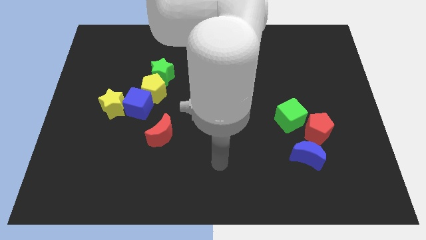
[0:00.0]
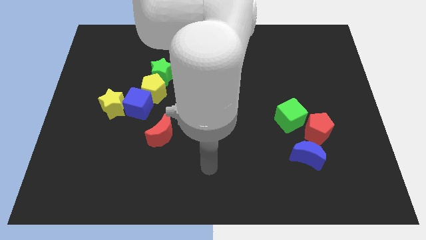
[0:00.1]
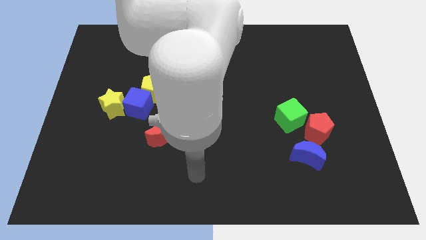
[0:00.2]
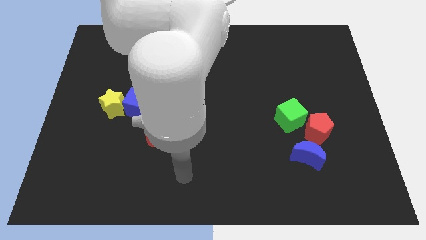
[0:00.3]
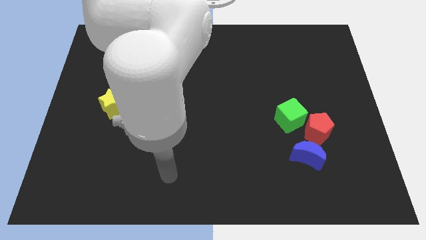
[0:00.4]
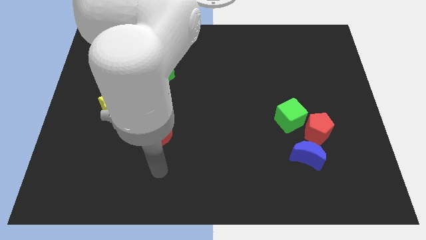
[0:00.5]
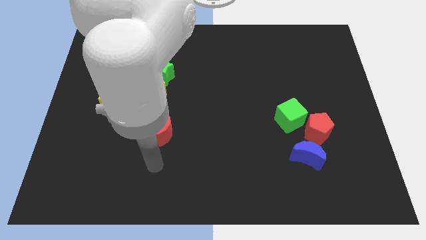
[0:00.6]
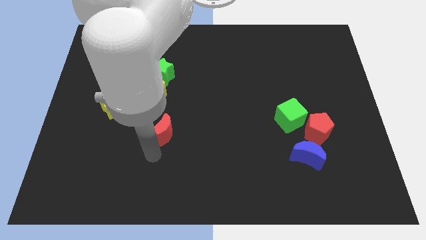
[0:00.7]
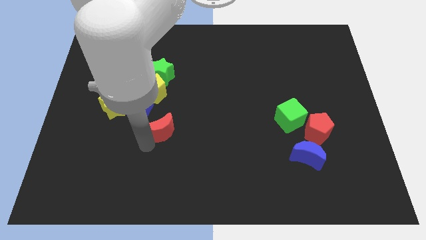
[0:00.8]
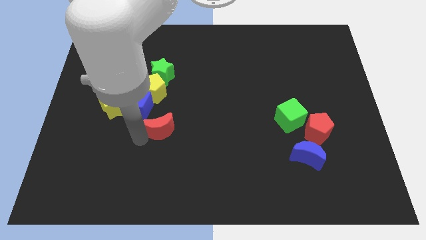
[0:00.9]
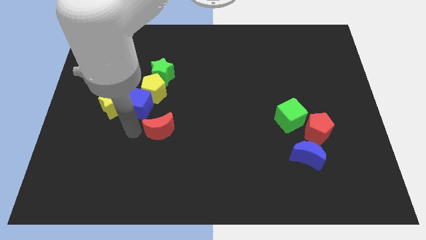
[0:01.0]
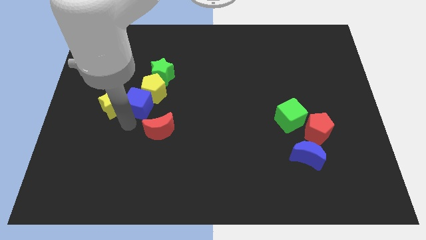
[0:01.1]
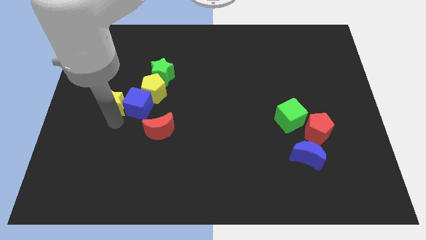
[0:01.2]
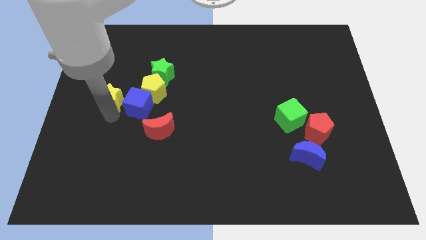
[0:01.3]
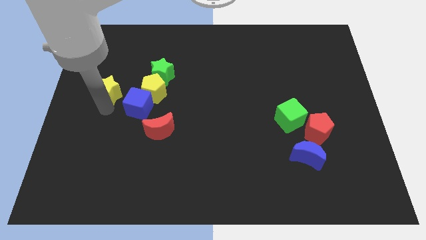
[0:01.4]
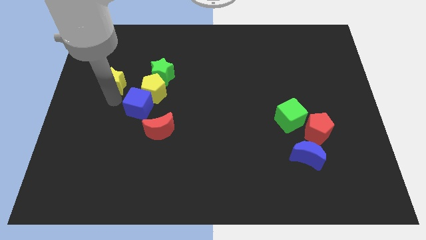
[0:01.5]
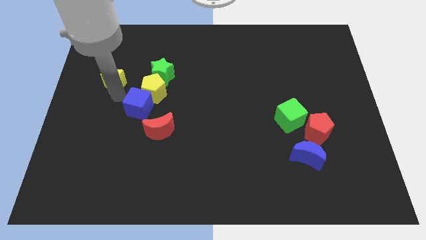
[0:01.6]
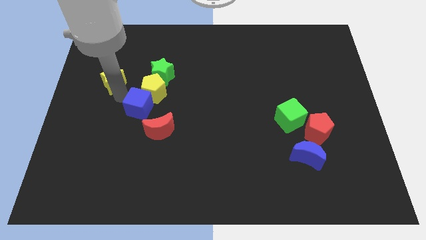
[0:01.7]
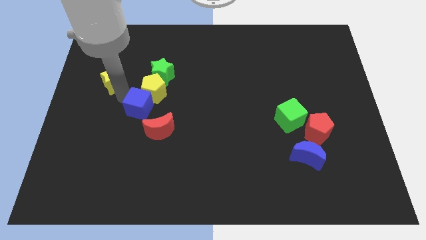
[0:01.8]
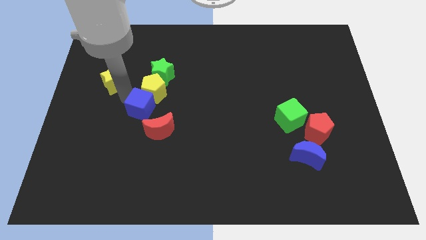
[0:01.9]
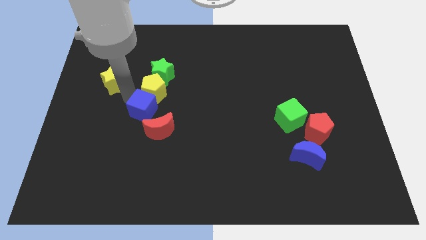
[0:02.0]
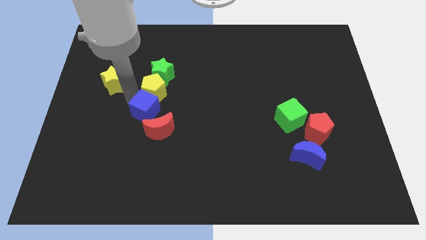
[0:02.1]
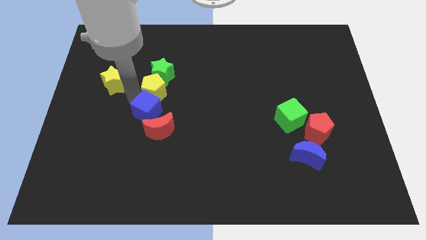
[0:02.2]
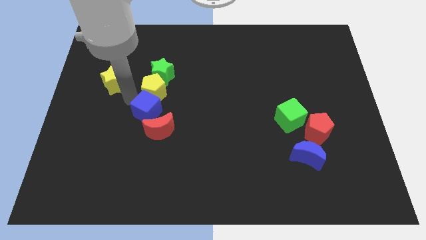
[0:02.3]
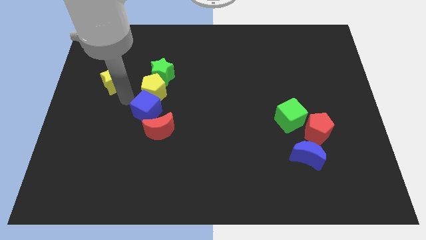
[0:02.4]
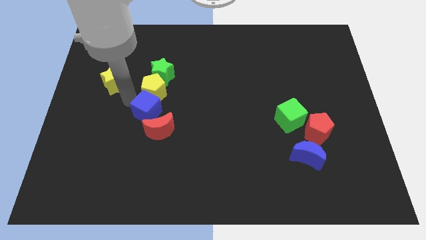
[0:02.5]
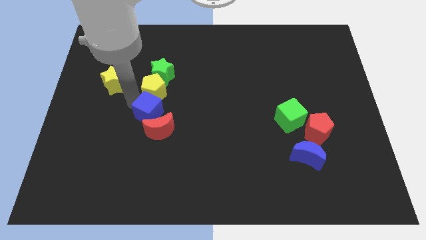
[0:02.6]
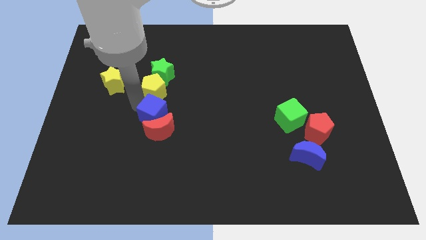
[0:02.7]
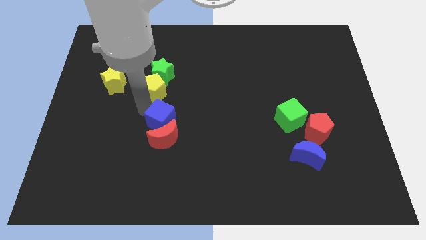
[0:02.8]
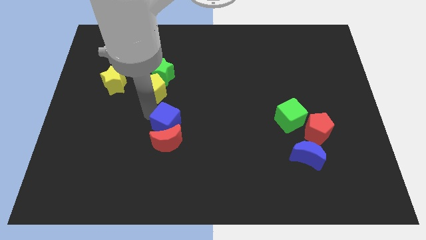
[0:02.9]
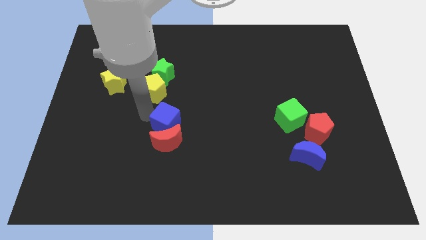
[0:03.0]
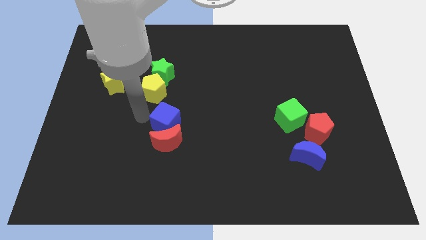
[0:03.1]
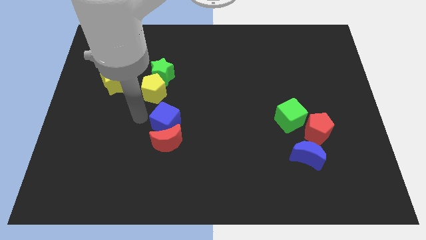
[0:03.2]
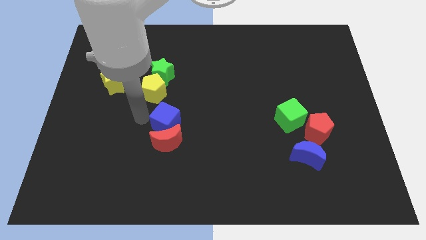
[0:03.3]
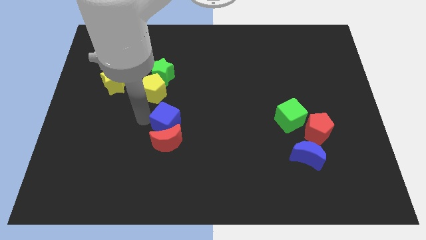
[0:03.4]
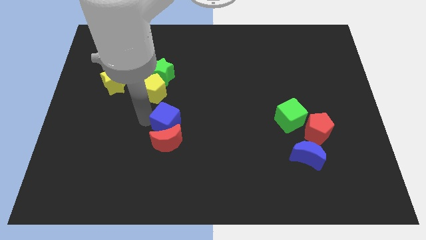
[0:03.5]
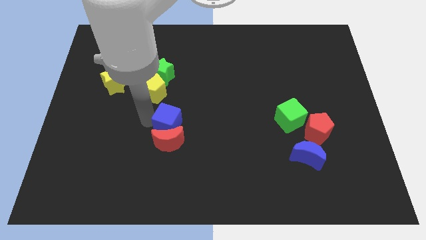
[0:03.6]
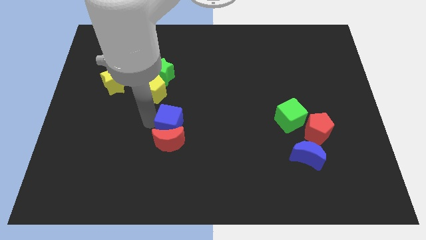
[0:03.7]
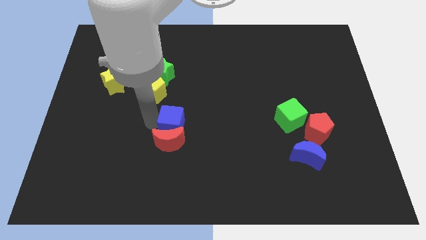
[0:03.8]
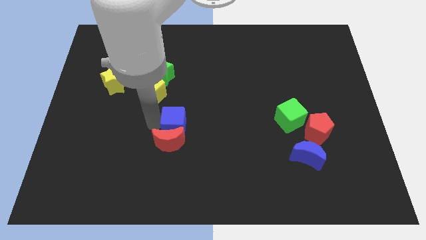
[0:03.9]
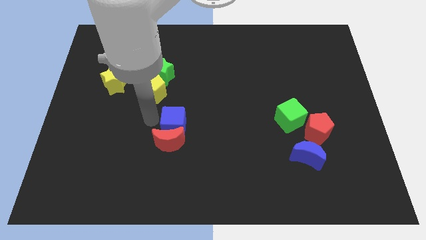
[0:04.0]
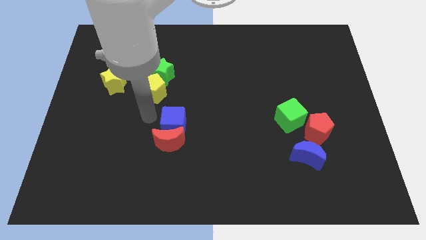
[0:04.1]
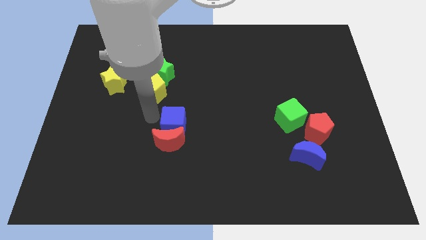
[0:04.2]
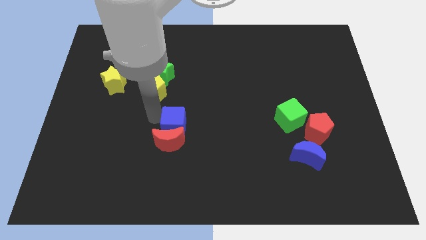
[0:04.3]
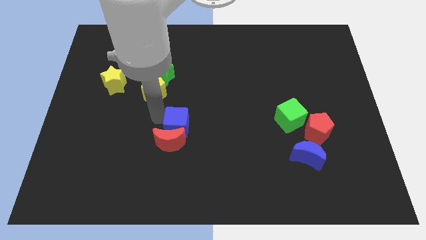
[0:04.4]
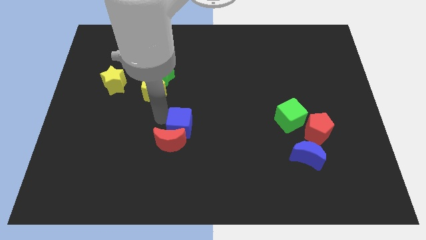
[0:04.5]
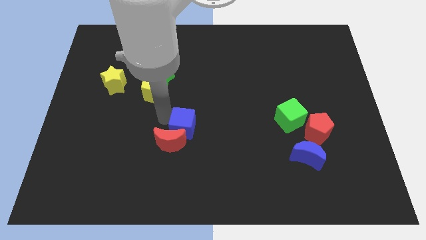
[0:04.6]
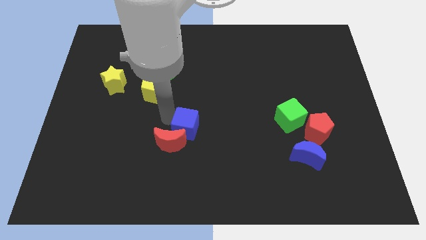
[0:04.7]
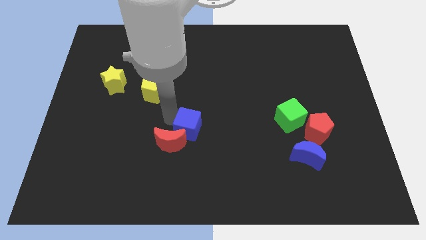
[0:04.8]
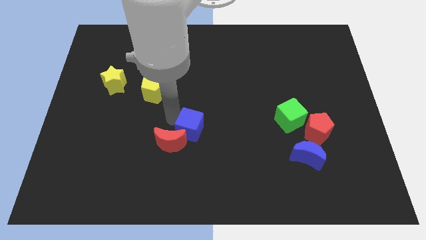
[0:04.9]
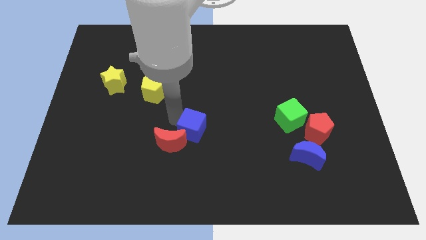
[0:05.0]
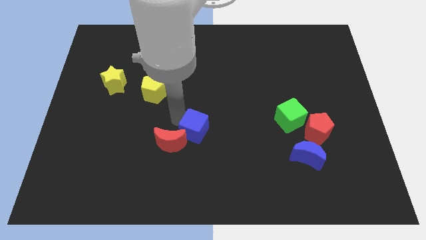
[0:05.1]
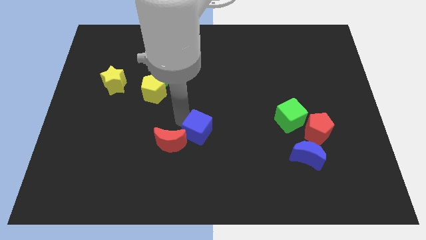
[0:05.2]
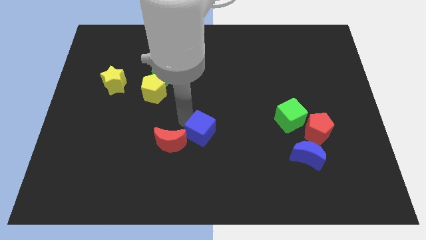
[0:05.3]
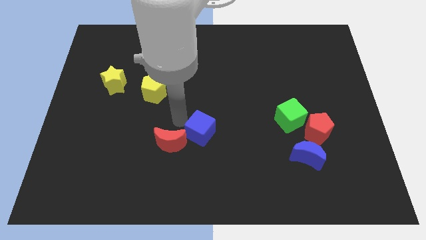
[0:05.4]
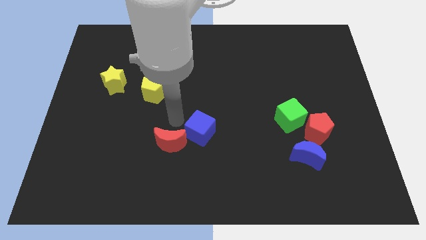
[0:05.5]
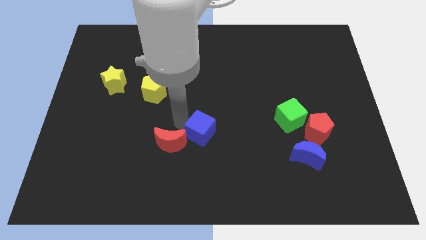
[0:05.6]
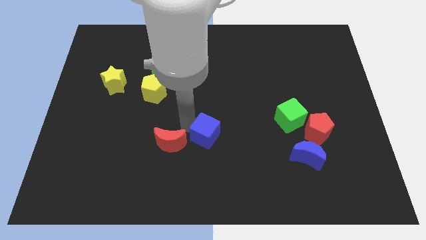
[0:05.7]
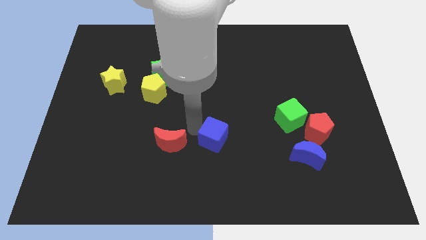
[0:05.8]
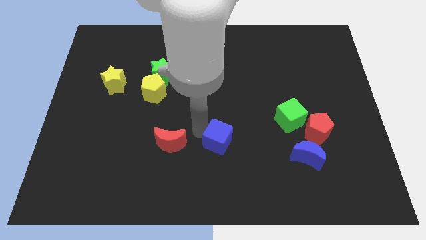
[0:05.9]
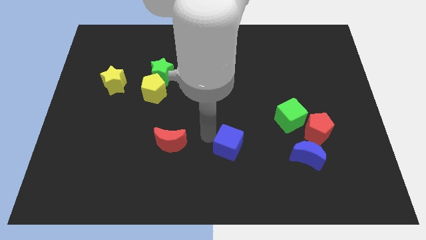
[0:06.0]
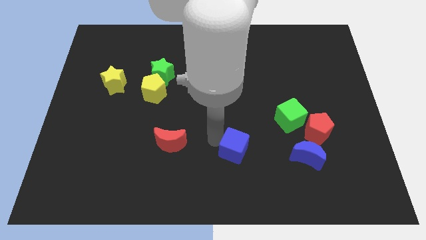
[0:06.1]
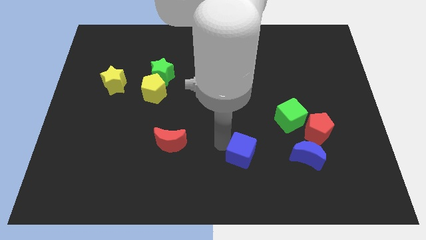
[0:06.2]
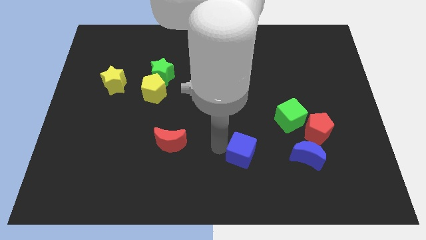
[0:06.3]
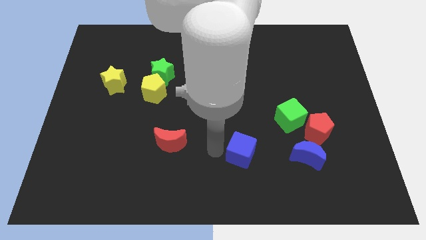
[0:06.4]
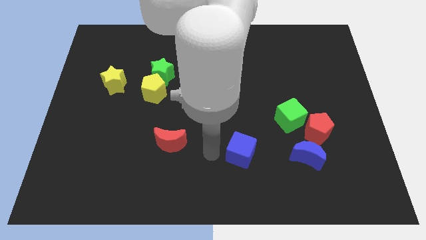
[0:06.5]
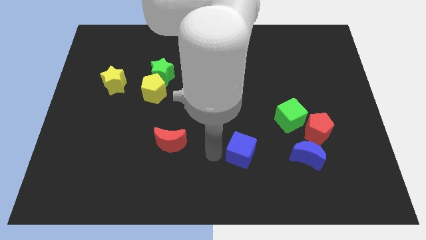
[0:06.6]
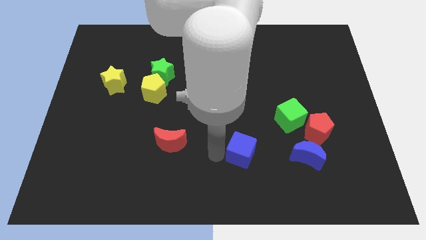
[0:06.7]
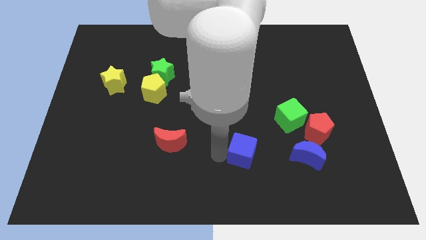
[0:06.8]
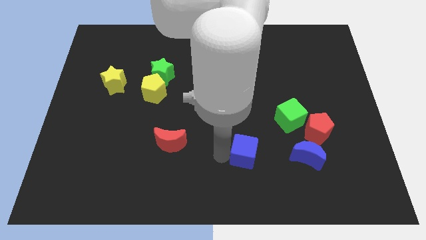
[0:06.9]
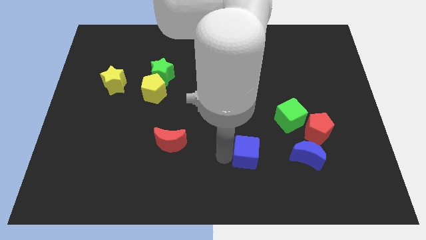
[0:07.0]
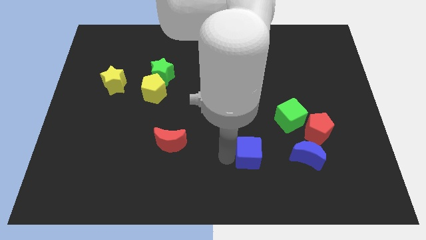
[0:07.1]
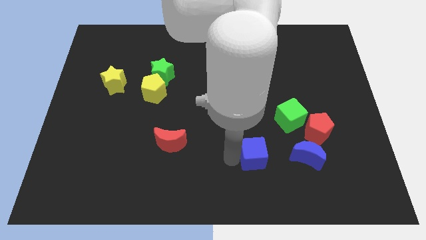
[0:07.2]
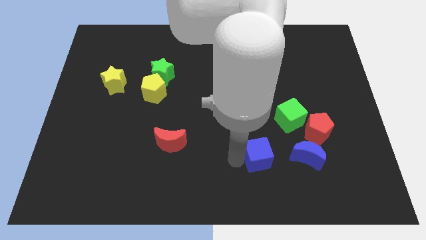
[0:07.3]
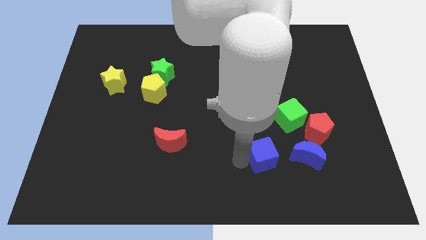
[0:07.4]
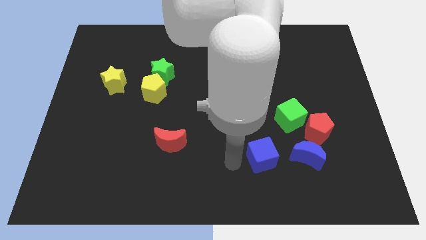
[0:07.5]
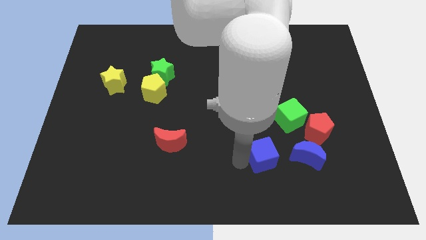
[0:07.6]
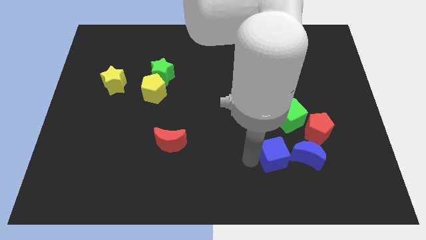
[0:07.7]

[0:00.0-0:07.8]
slide the blue cube diagonally down and to the left of the red pentagon
